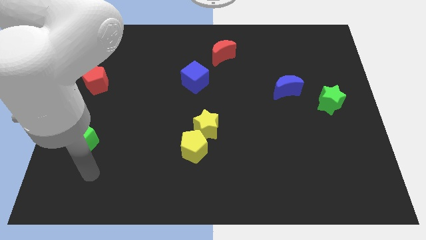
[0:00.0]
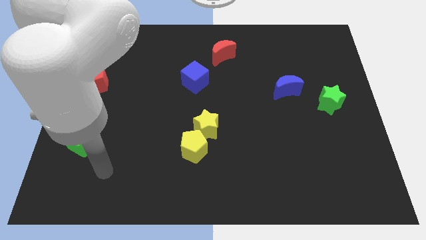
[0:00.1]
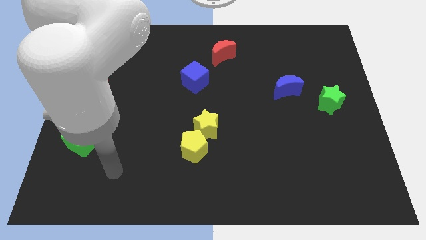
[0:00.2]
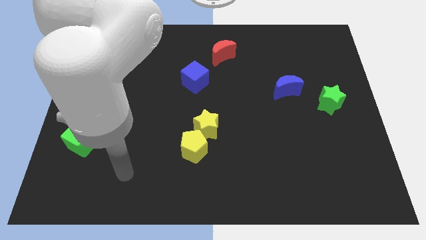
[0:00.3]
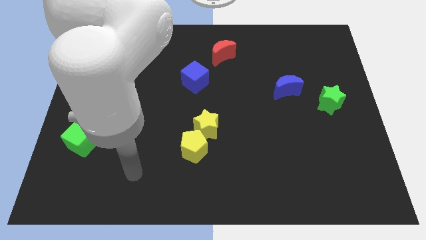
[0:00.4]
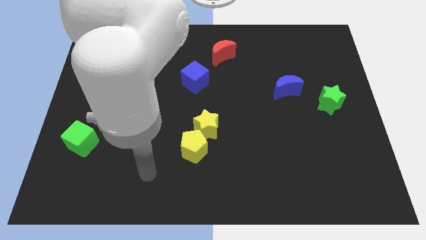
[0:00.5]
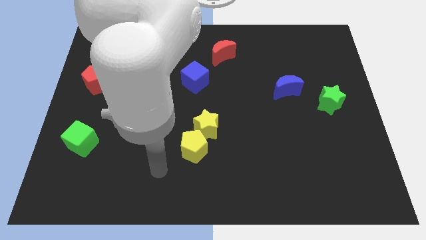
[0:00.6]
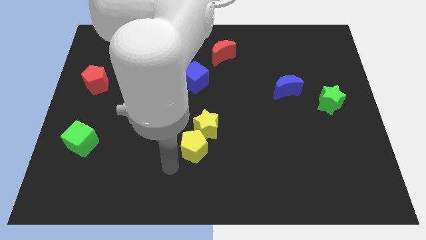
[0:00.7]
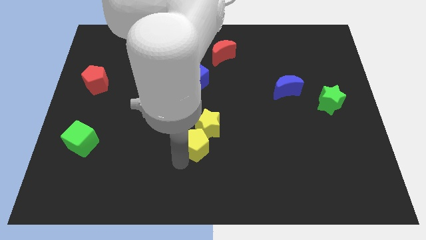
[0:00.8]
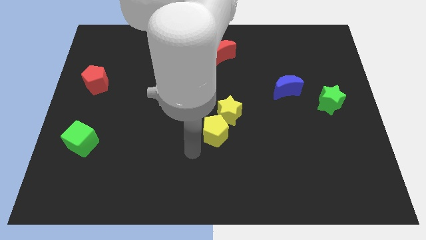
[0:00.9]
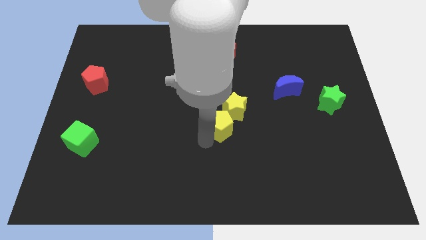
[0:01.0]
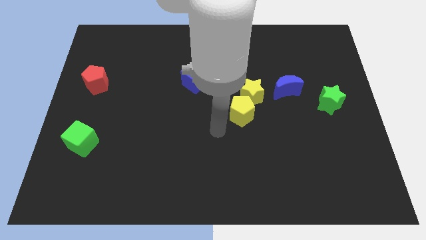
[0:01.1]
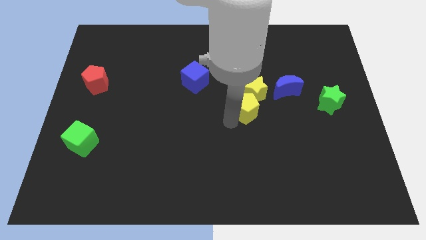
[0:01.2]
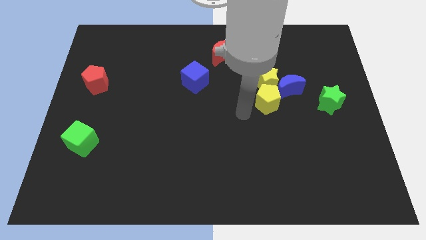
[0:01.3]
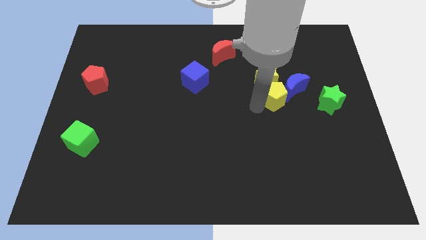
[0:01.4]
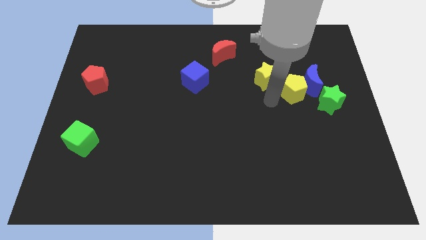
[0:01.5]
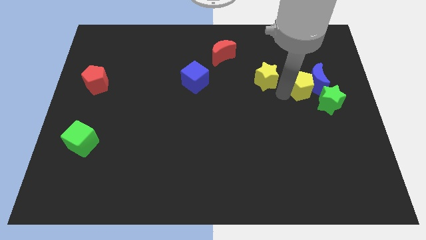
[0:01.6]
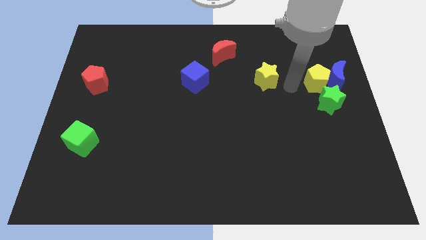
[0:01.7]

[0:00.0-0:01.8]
move the yellow star away from the yellow pentagon

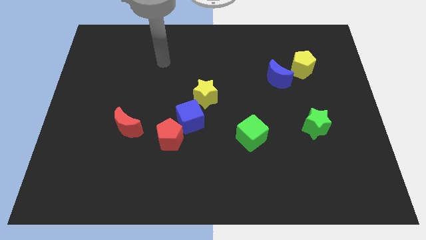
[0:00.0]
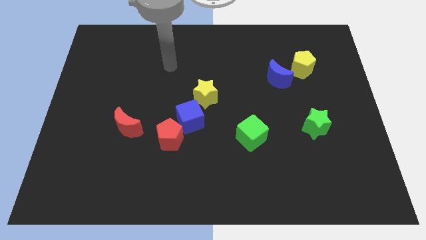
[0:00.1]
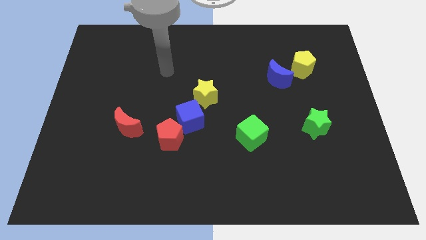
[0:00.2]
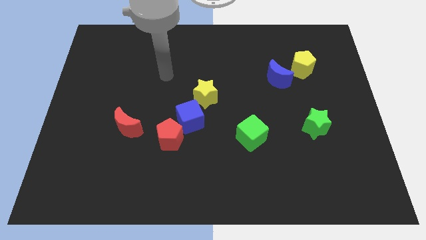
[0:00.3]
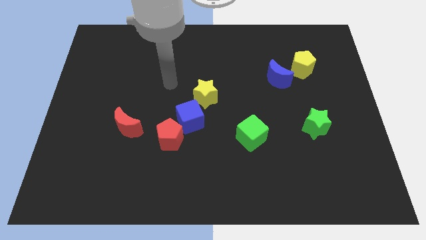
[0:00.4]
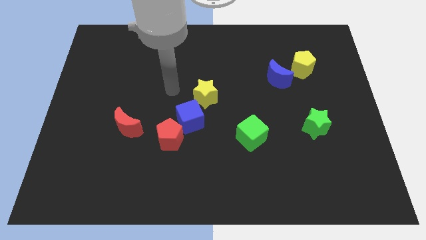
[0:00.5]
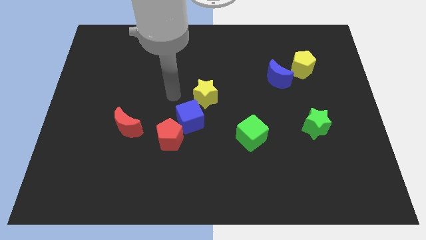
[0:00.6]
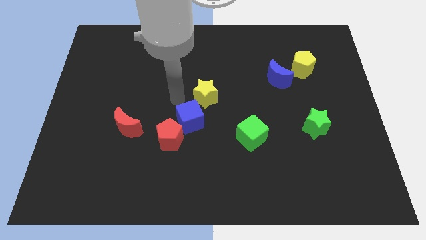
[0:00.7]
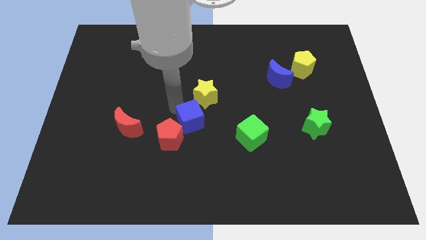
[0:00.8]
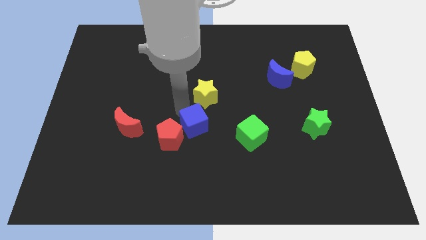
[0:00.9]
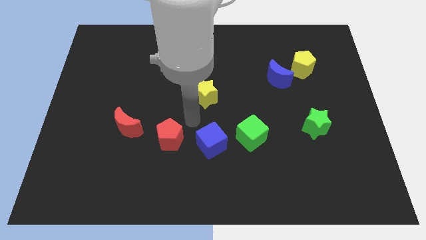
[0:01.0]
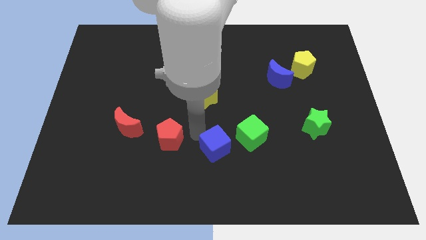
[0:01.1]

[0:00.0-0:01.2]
separate the red pentagon from the blue cube

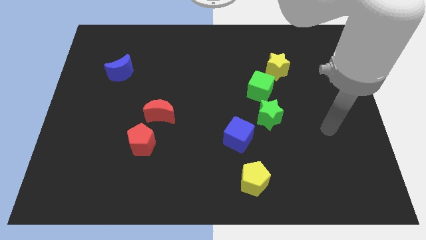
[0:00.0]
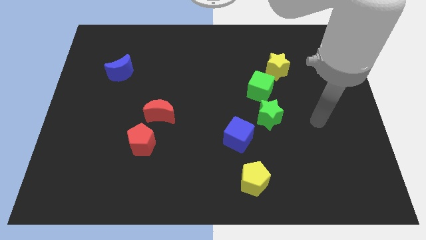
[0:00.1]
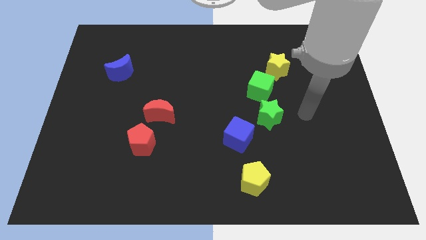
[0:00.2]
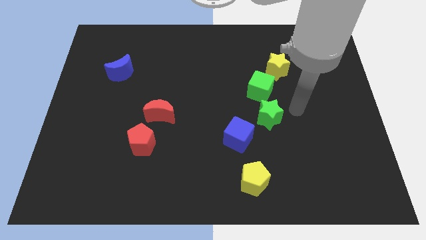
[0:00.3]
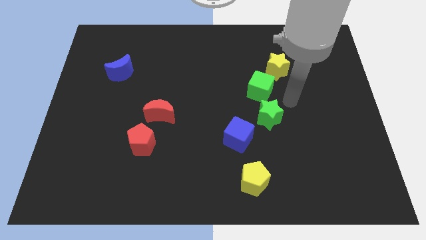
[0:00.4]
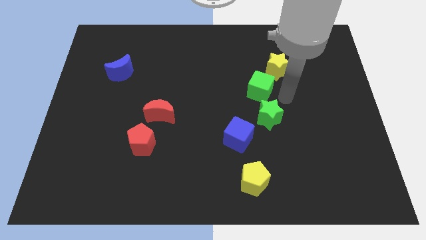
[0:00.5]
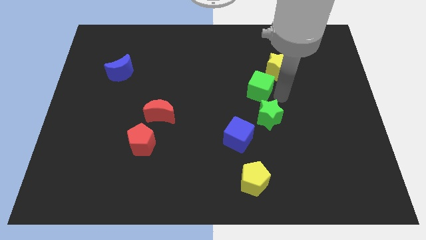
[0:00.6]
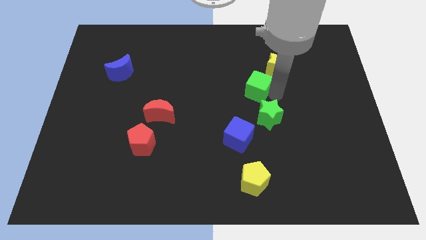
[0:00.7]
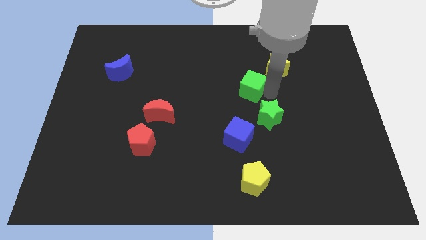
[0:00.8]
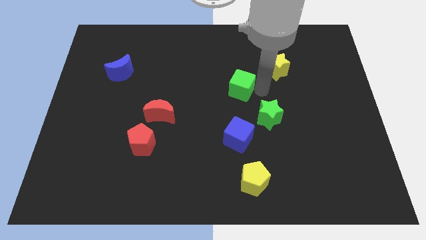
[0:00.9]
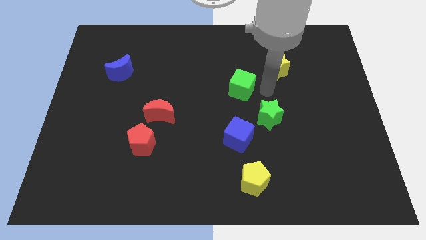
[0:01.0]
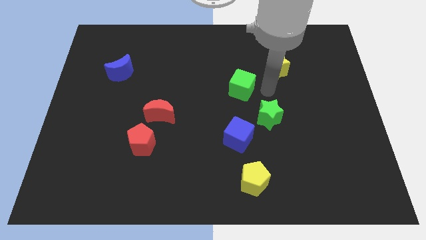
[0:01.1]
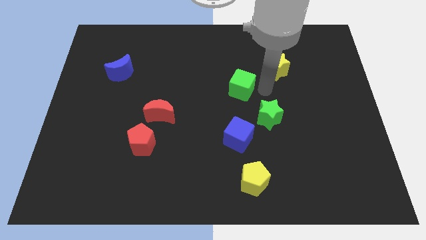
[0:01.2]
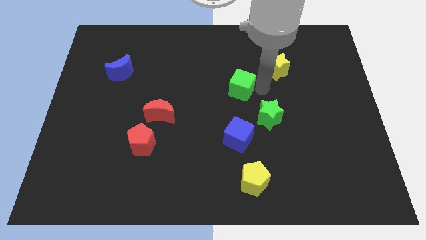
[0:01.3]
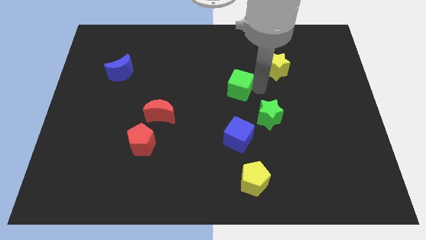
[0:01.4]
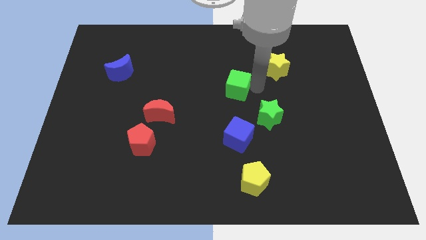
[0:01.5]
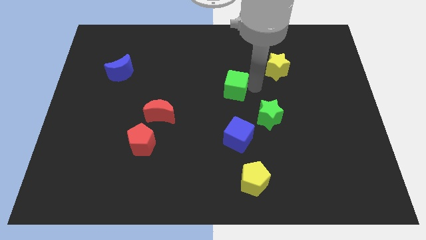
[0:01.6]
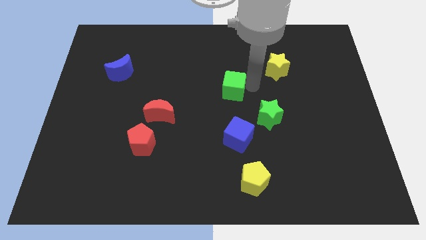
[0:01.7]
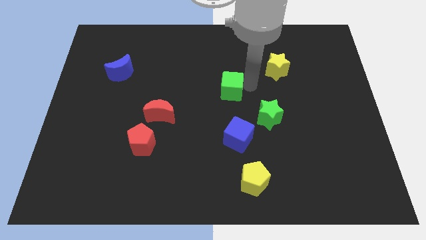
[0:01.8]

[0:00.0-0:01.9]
pull the green cube apart from the green star and yellow star

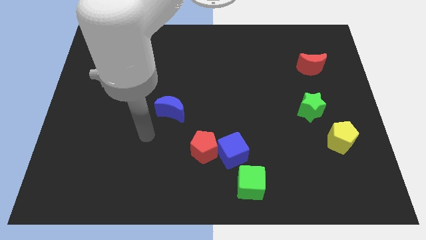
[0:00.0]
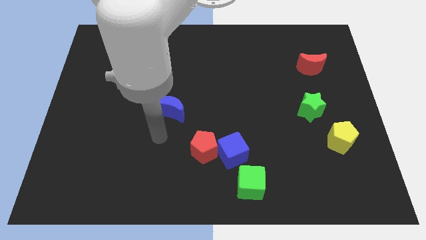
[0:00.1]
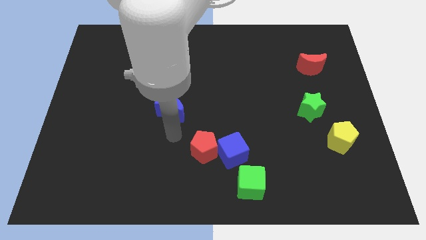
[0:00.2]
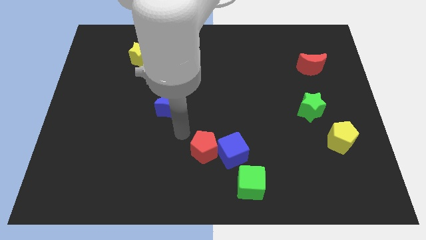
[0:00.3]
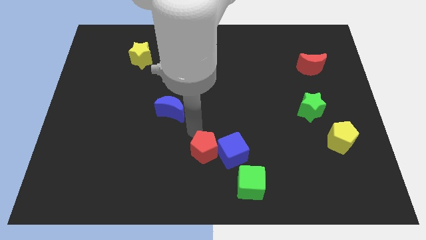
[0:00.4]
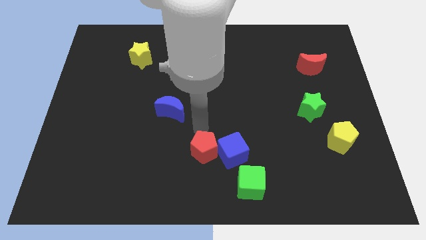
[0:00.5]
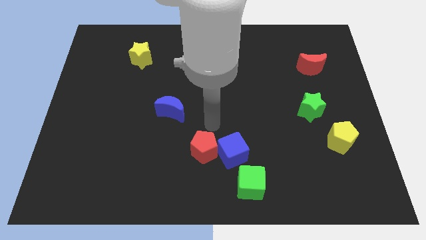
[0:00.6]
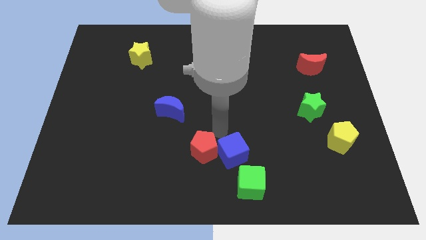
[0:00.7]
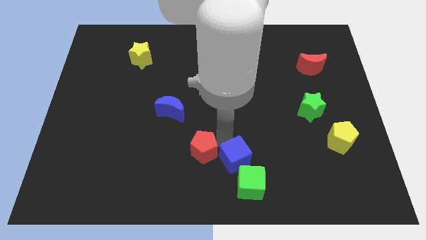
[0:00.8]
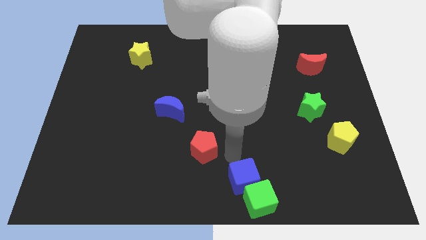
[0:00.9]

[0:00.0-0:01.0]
pull the red pentagon apart from the blue cube

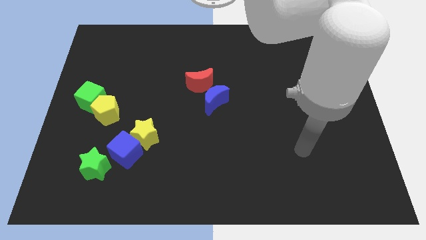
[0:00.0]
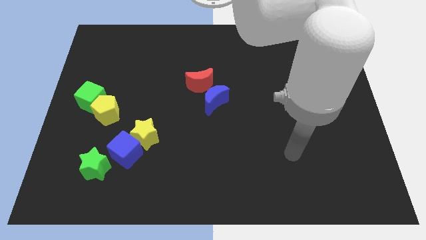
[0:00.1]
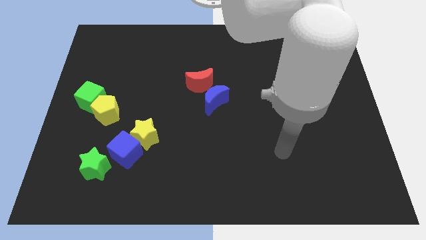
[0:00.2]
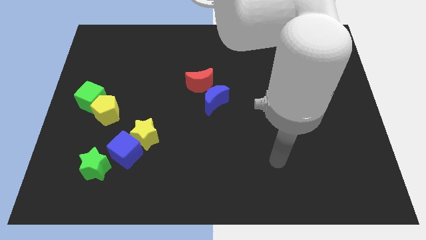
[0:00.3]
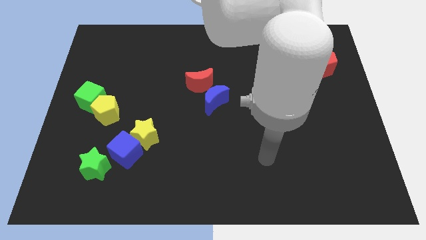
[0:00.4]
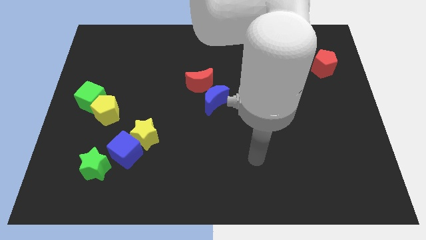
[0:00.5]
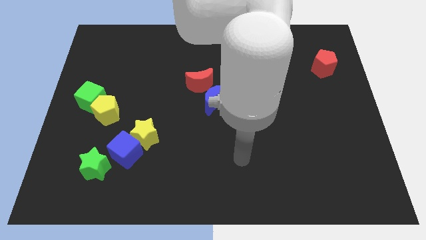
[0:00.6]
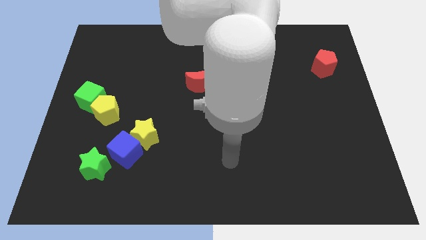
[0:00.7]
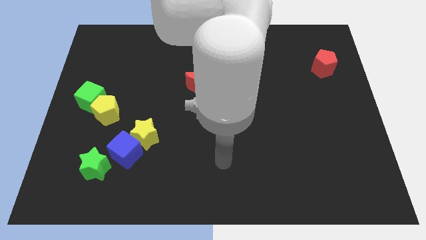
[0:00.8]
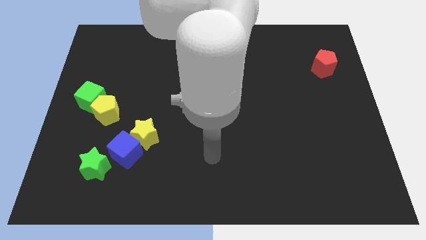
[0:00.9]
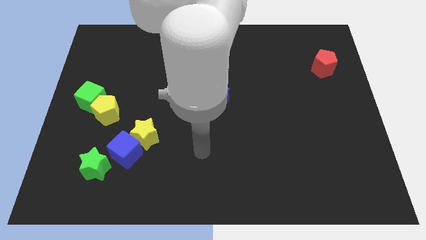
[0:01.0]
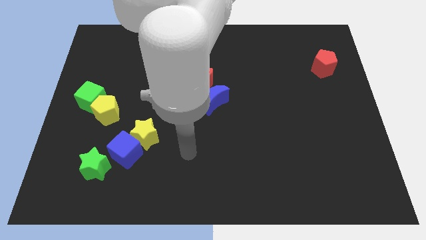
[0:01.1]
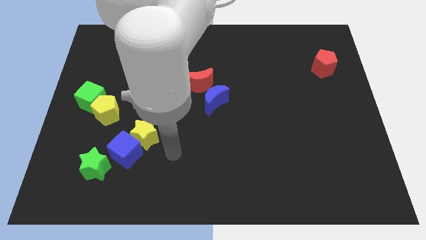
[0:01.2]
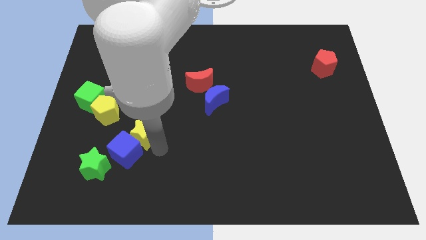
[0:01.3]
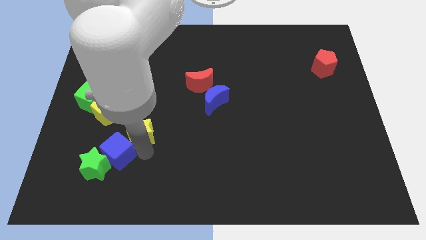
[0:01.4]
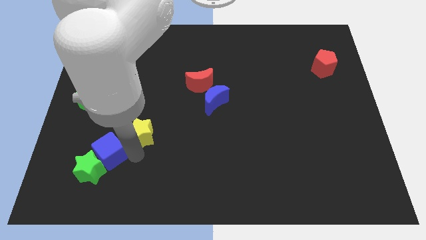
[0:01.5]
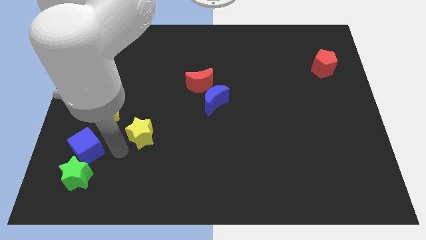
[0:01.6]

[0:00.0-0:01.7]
move the yellow star away from the blue cube

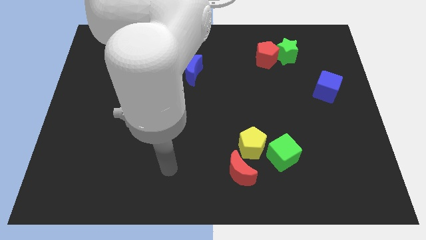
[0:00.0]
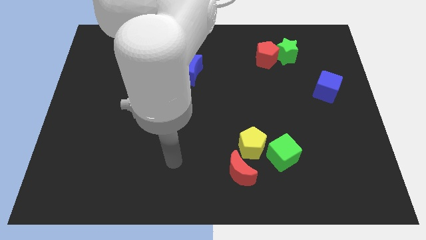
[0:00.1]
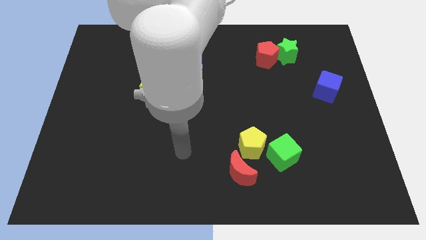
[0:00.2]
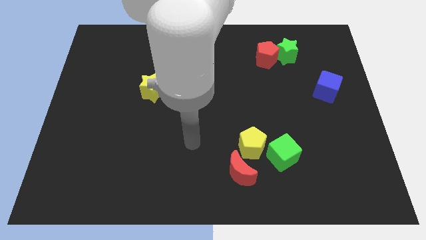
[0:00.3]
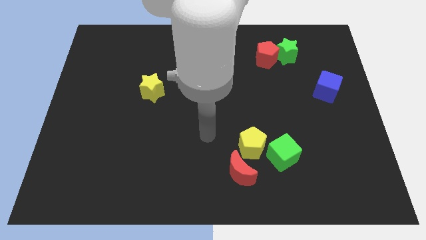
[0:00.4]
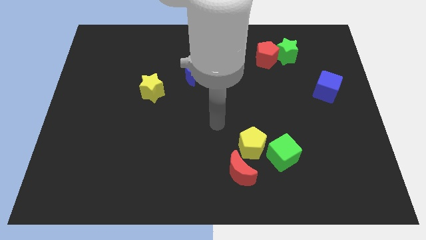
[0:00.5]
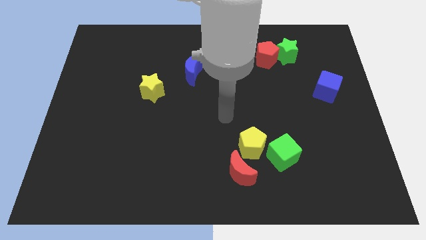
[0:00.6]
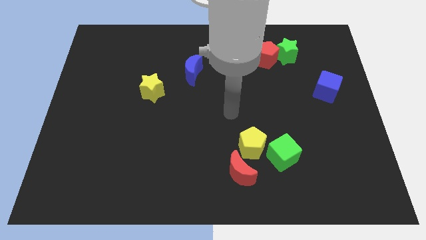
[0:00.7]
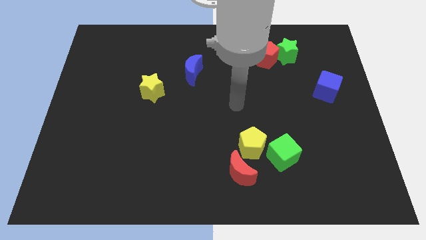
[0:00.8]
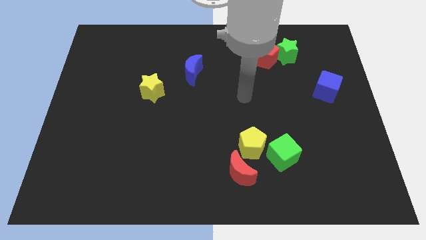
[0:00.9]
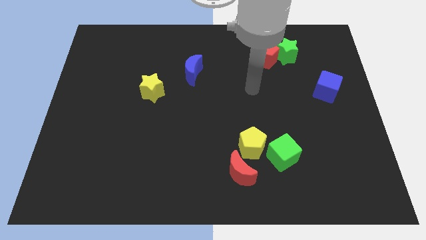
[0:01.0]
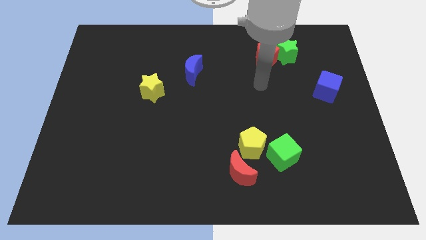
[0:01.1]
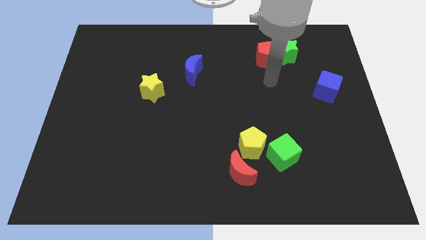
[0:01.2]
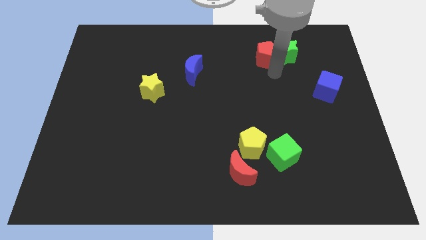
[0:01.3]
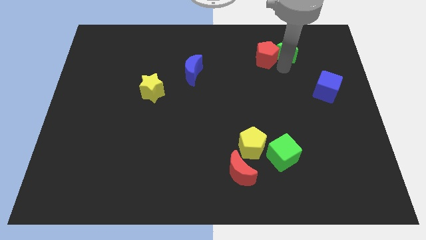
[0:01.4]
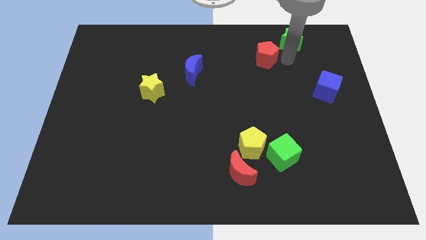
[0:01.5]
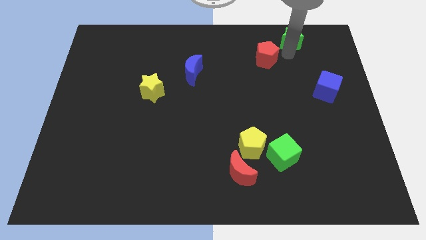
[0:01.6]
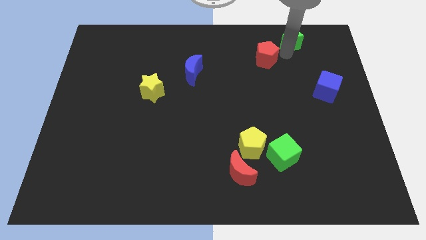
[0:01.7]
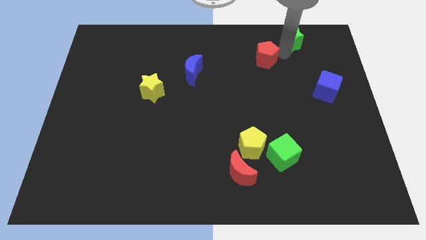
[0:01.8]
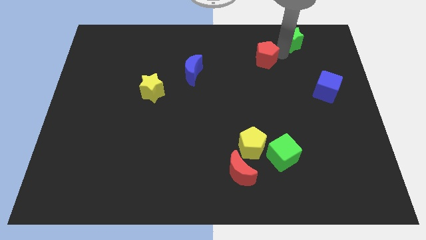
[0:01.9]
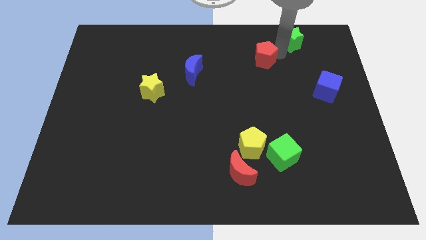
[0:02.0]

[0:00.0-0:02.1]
pull the red pentagon apart from the green star
